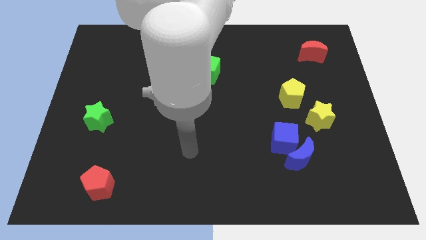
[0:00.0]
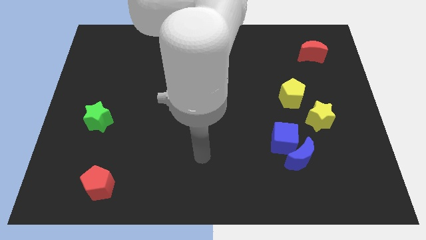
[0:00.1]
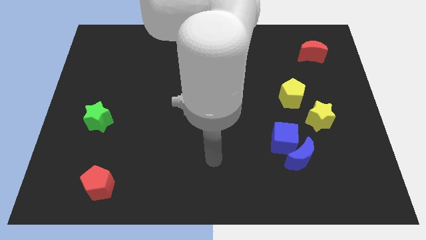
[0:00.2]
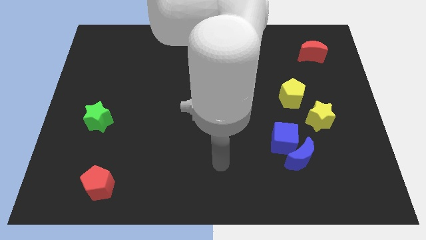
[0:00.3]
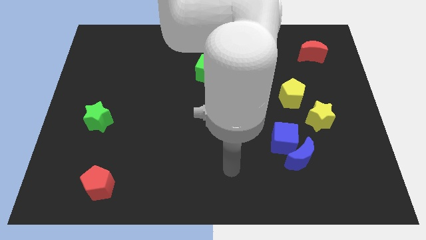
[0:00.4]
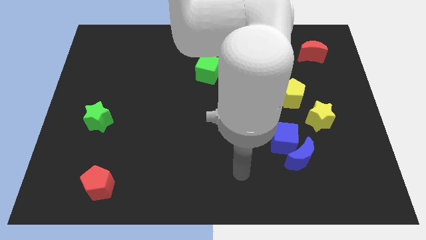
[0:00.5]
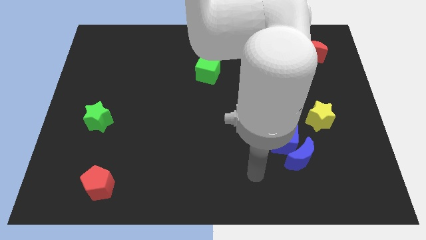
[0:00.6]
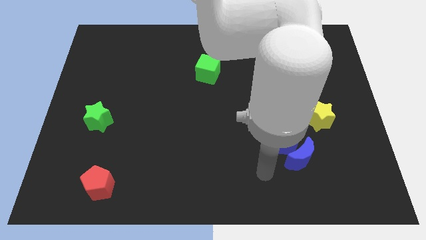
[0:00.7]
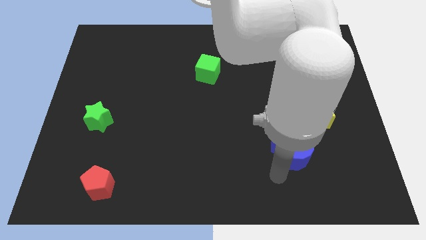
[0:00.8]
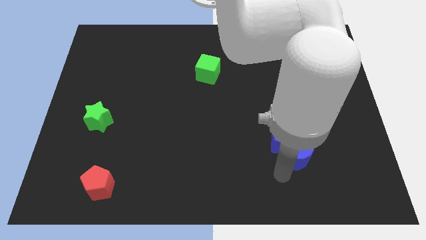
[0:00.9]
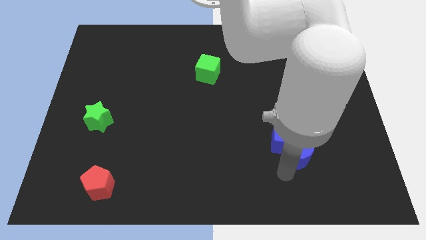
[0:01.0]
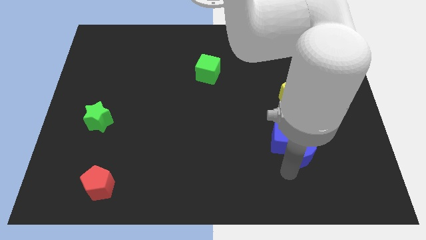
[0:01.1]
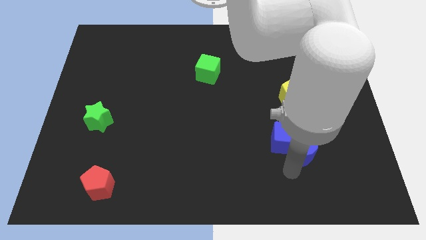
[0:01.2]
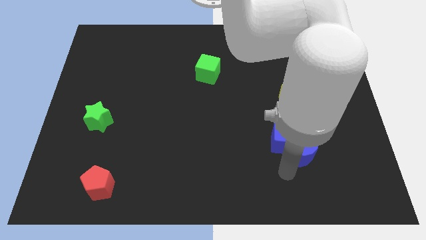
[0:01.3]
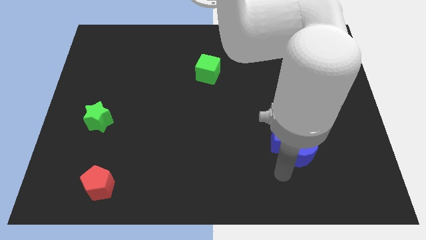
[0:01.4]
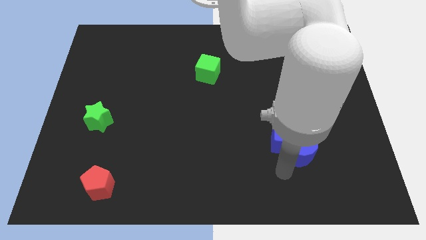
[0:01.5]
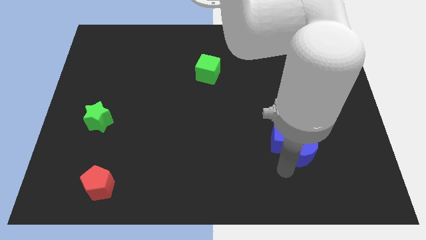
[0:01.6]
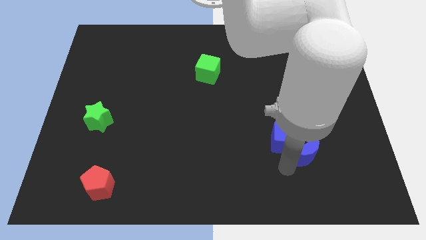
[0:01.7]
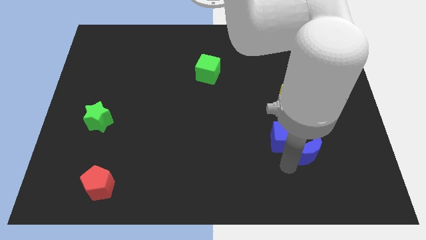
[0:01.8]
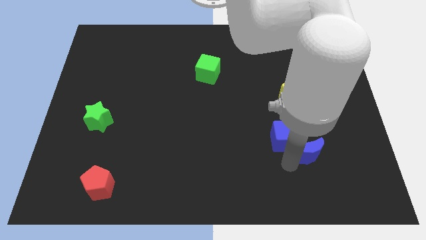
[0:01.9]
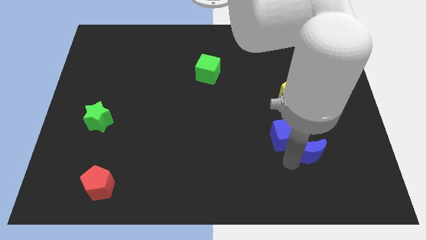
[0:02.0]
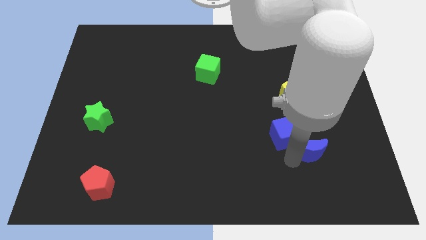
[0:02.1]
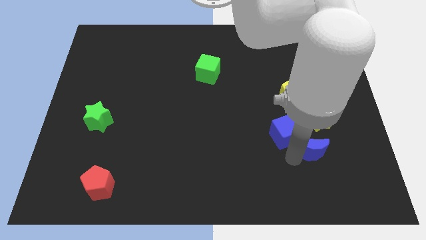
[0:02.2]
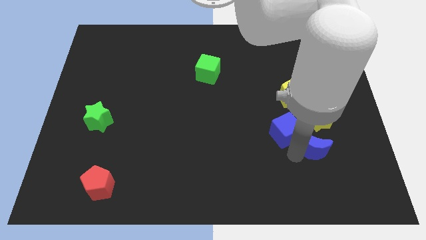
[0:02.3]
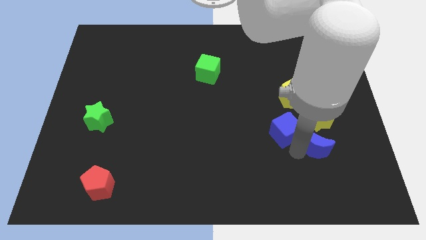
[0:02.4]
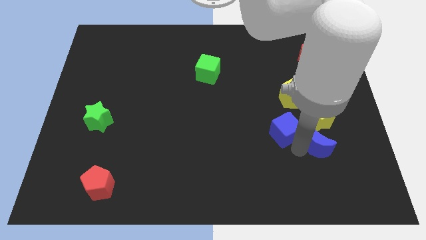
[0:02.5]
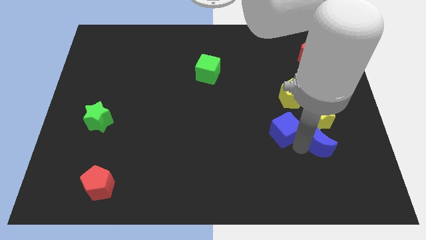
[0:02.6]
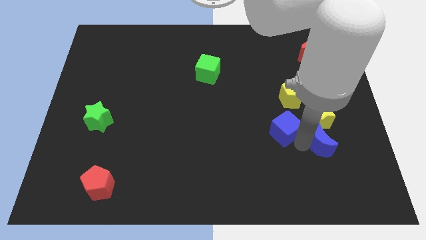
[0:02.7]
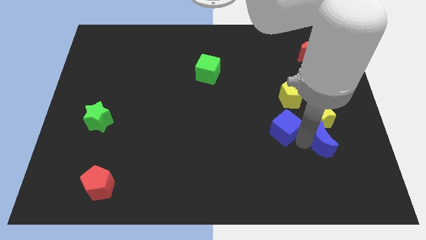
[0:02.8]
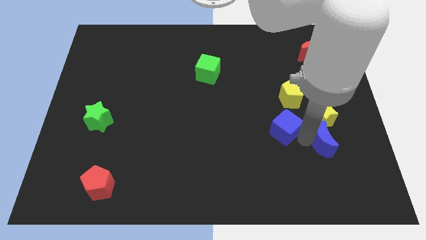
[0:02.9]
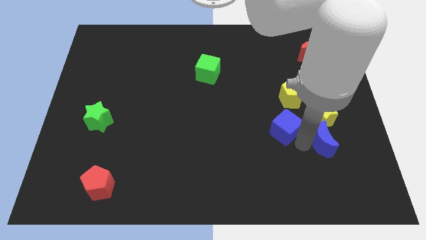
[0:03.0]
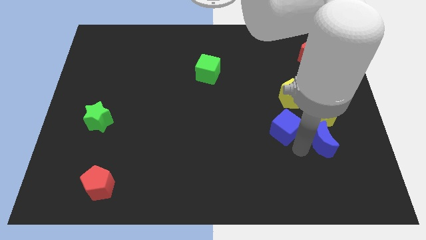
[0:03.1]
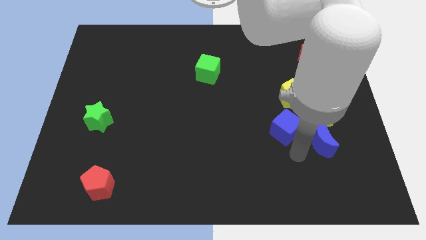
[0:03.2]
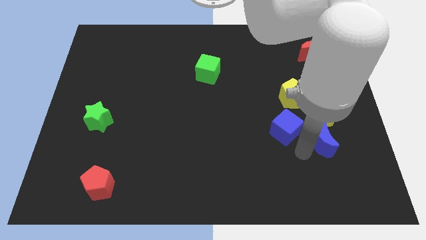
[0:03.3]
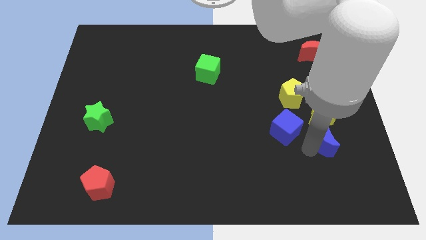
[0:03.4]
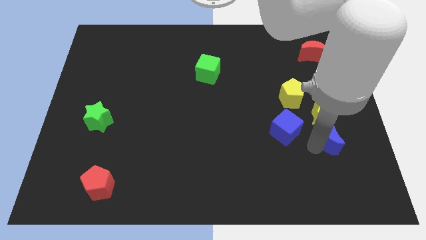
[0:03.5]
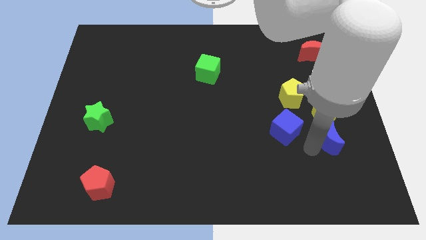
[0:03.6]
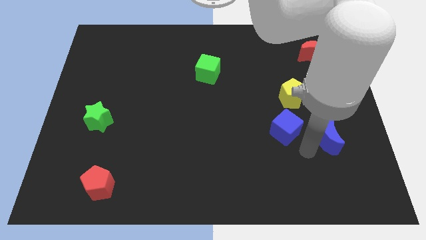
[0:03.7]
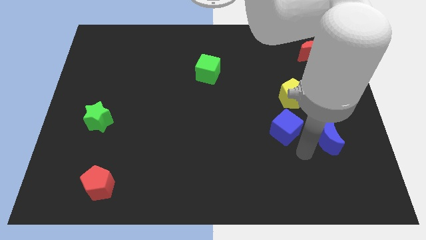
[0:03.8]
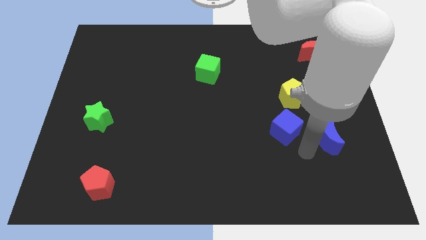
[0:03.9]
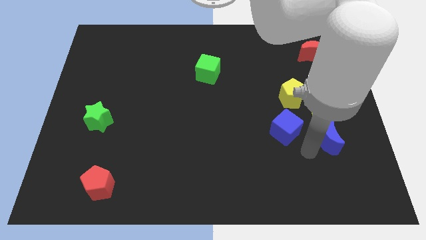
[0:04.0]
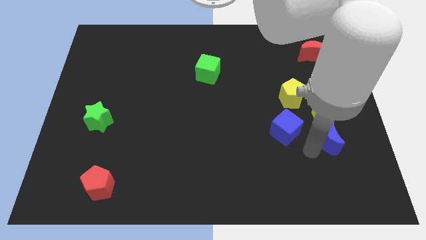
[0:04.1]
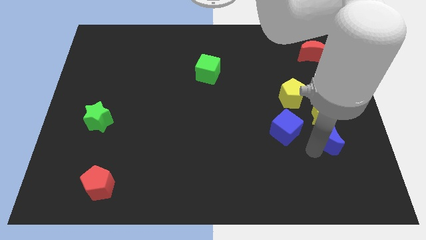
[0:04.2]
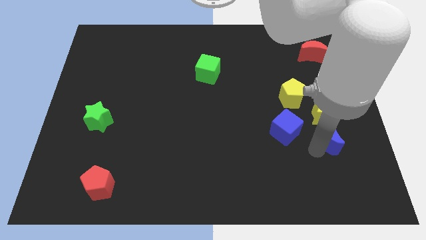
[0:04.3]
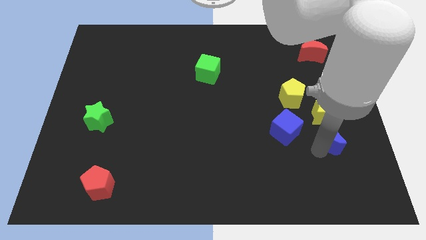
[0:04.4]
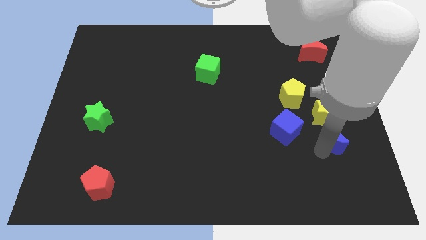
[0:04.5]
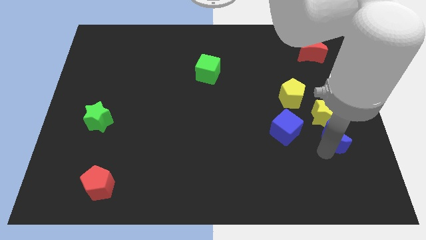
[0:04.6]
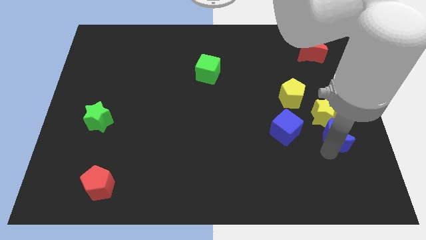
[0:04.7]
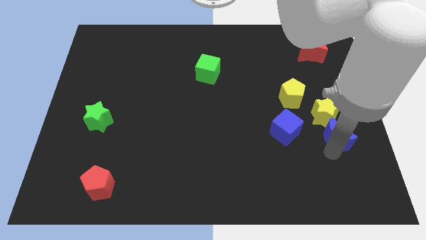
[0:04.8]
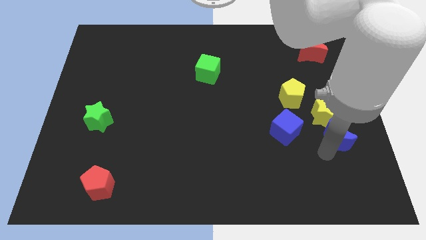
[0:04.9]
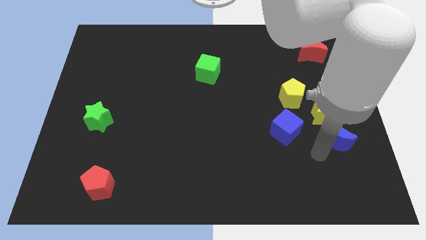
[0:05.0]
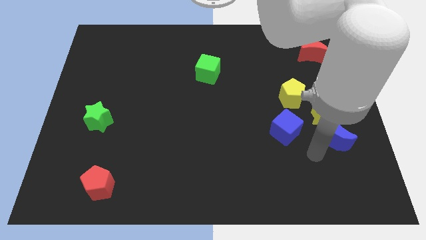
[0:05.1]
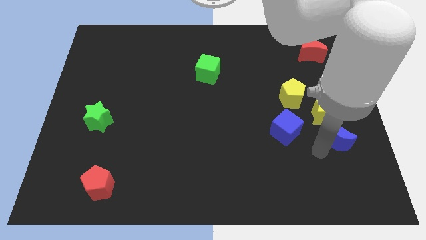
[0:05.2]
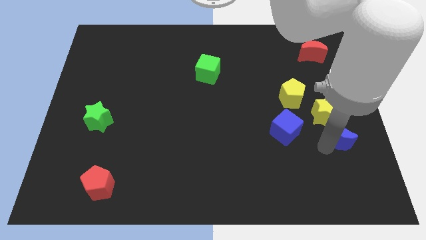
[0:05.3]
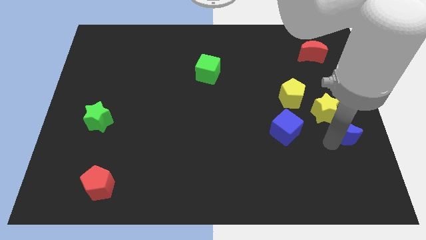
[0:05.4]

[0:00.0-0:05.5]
slide the blue moon to the center right

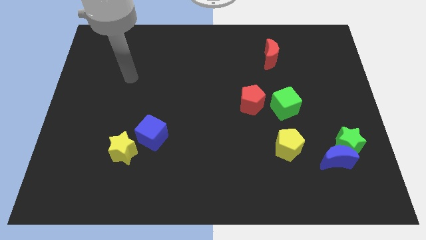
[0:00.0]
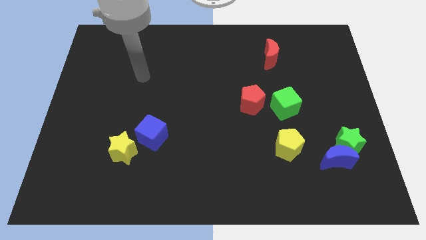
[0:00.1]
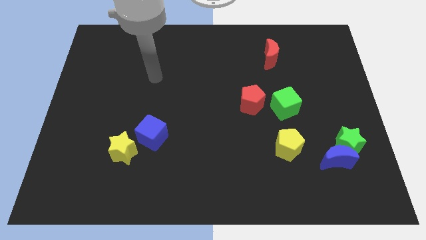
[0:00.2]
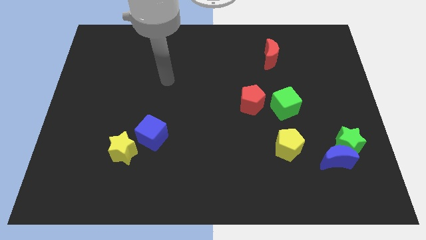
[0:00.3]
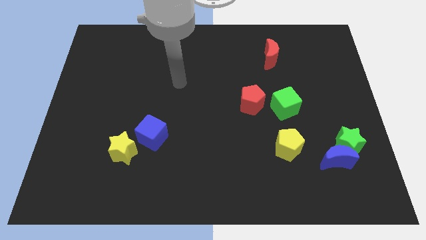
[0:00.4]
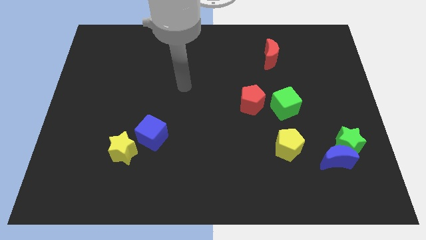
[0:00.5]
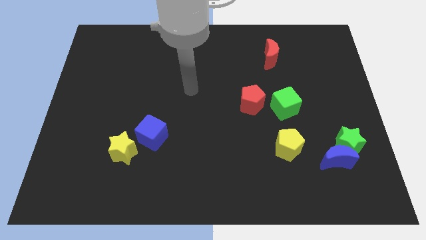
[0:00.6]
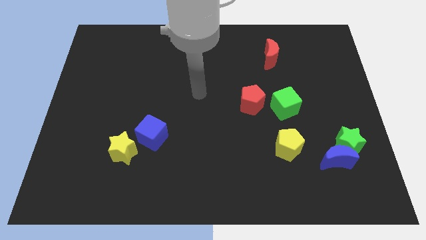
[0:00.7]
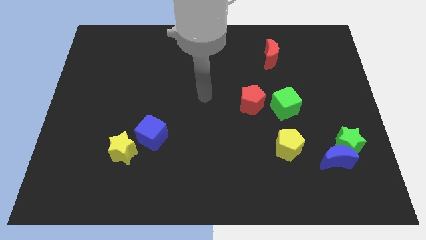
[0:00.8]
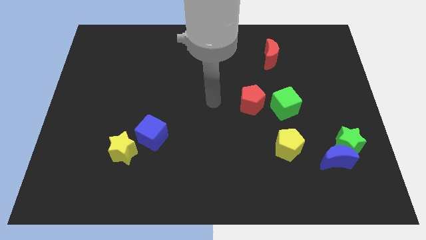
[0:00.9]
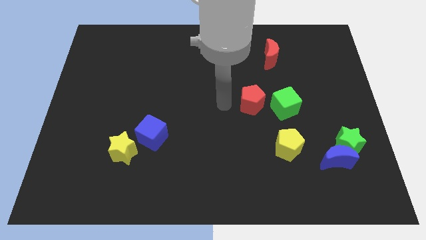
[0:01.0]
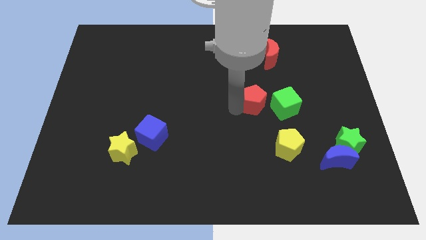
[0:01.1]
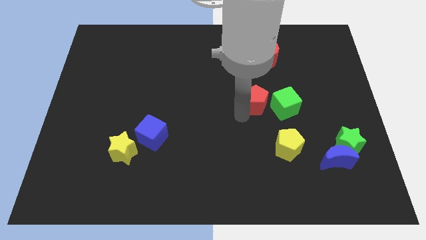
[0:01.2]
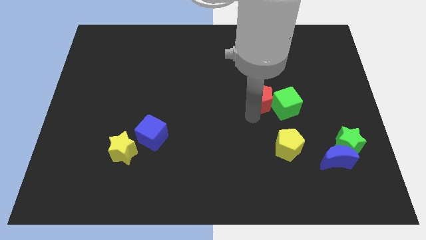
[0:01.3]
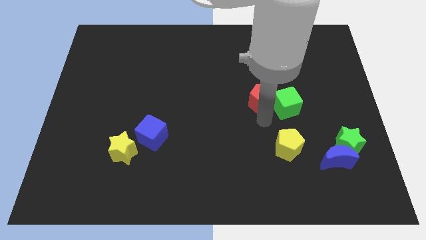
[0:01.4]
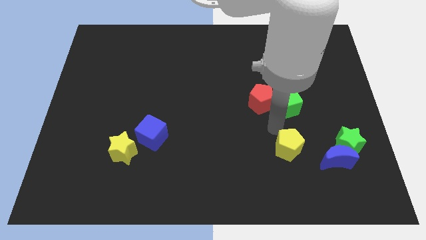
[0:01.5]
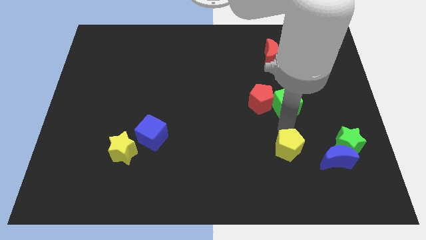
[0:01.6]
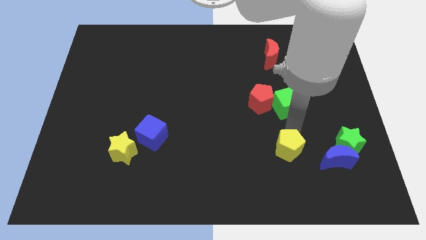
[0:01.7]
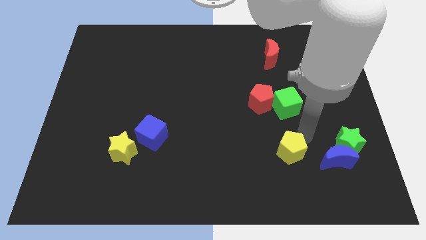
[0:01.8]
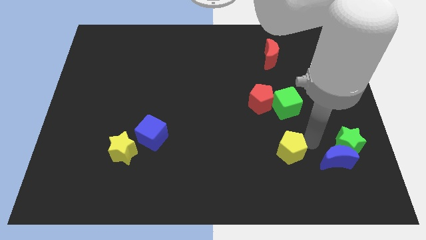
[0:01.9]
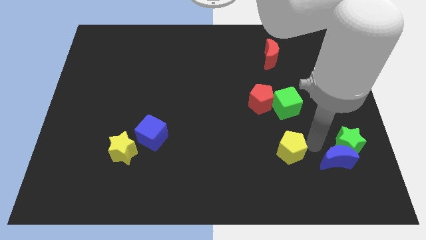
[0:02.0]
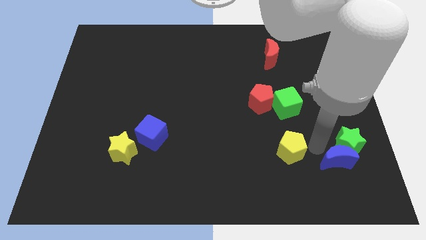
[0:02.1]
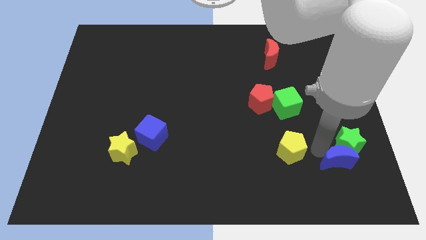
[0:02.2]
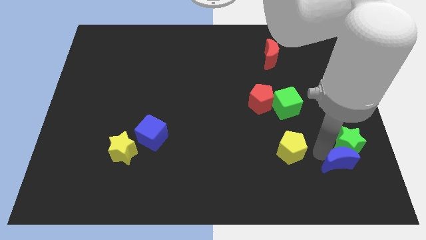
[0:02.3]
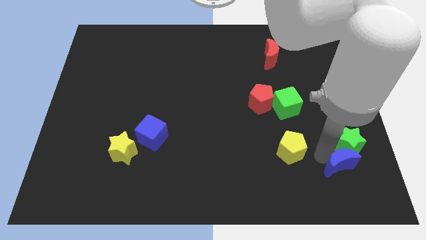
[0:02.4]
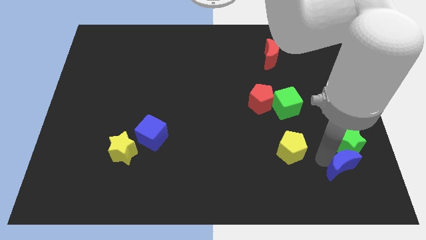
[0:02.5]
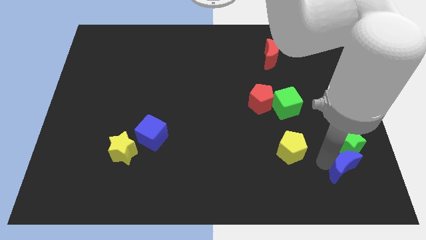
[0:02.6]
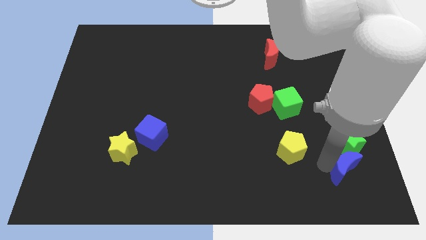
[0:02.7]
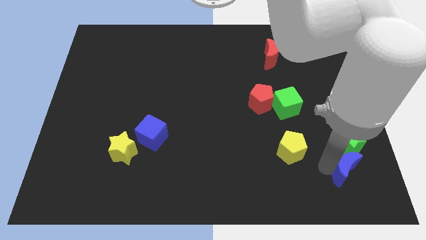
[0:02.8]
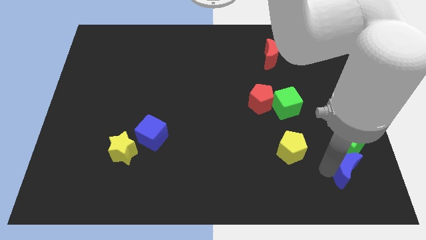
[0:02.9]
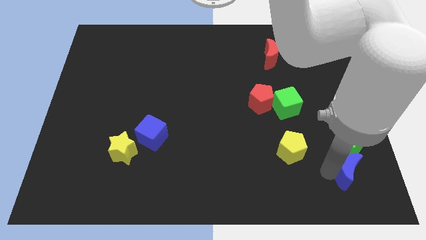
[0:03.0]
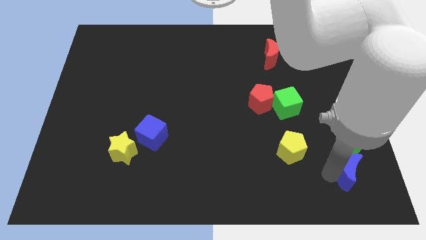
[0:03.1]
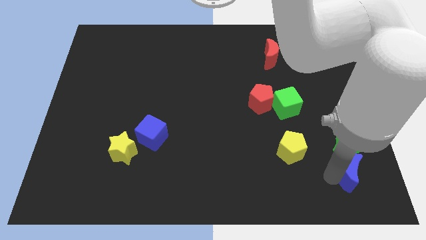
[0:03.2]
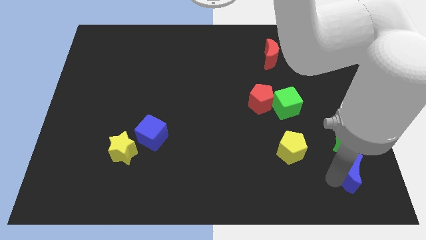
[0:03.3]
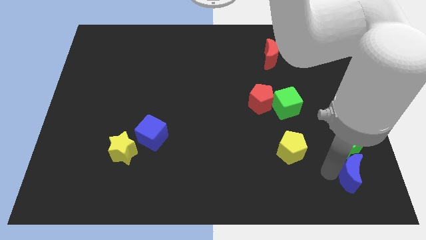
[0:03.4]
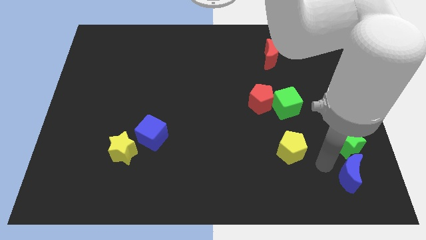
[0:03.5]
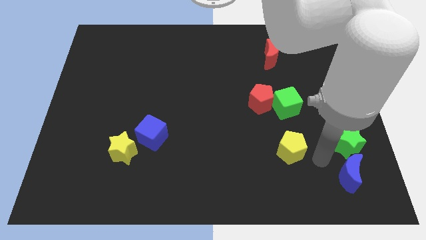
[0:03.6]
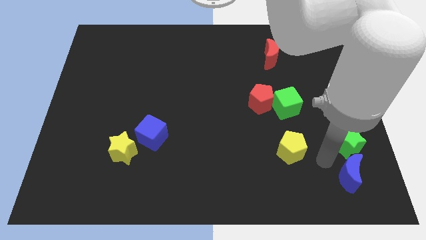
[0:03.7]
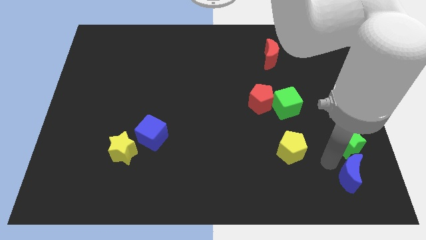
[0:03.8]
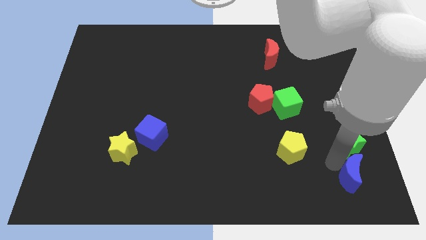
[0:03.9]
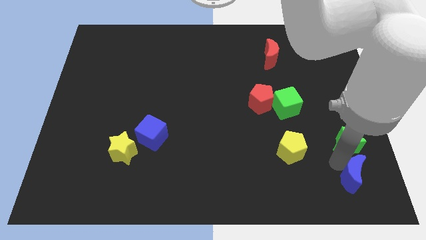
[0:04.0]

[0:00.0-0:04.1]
move the blue moon to the lower right corner
